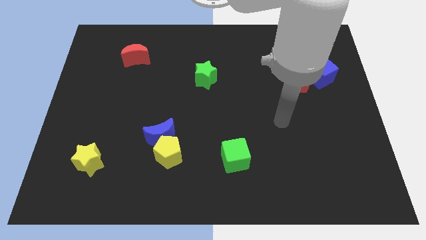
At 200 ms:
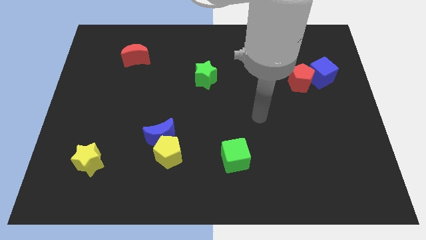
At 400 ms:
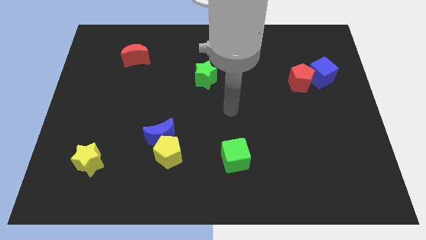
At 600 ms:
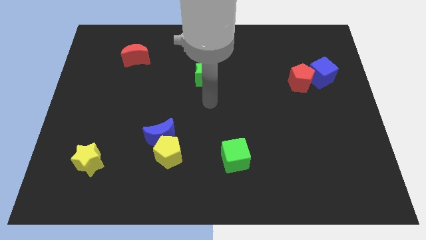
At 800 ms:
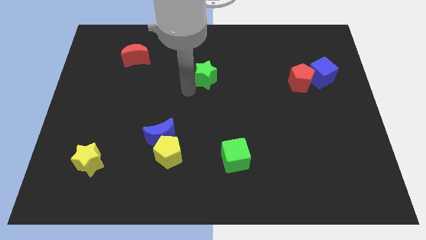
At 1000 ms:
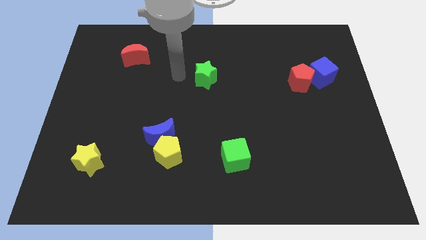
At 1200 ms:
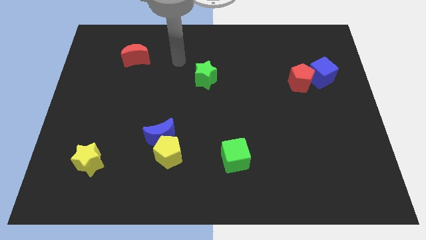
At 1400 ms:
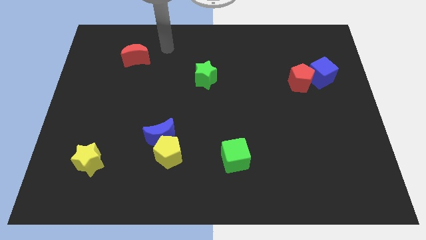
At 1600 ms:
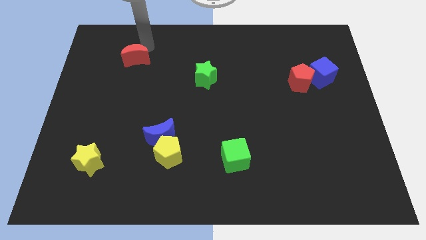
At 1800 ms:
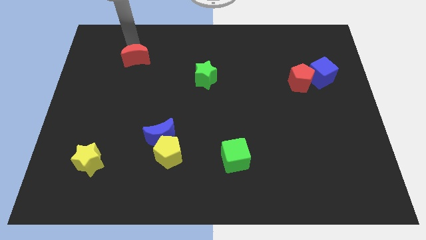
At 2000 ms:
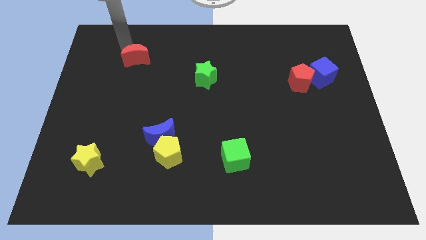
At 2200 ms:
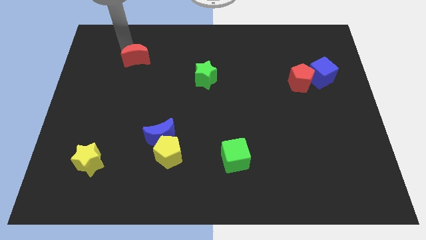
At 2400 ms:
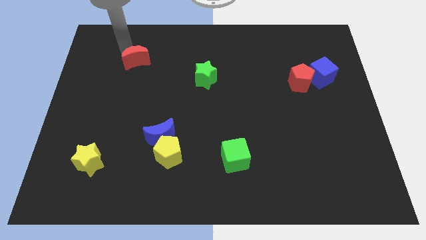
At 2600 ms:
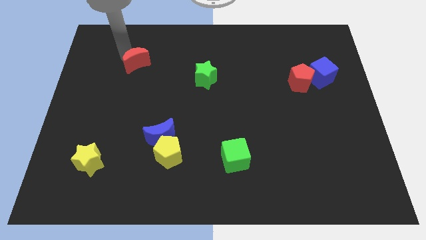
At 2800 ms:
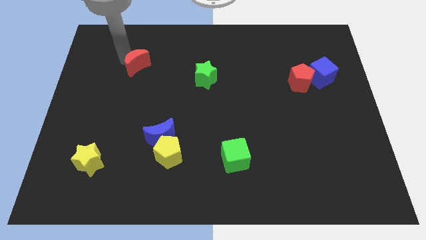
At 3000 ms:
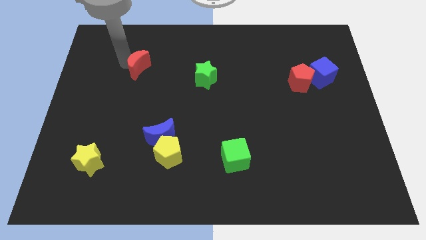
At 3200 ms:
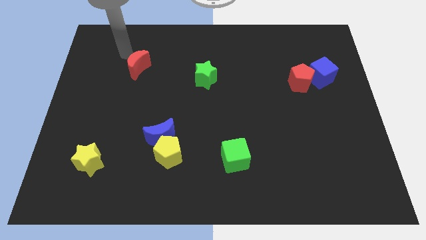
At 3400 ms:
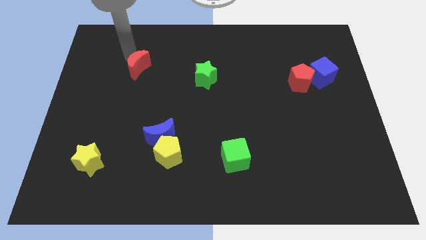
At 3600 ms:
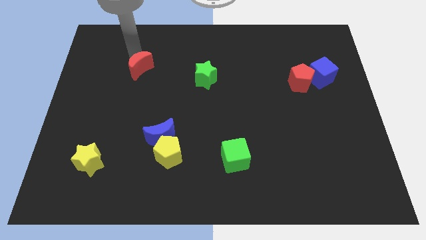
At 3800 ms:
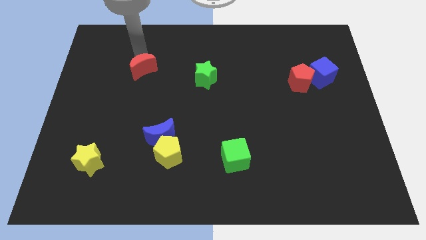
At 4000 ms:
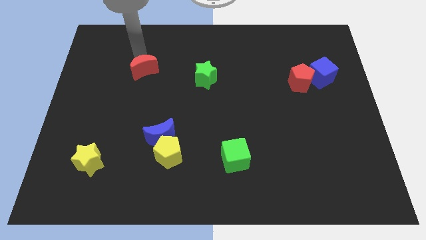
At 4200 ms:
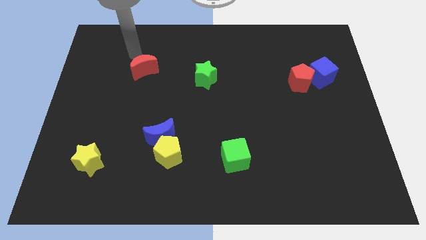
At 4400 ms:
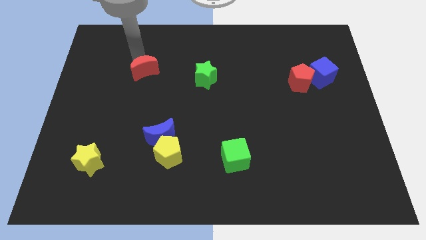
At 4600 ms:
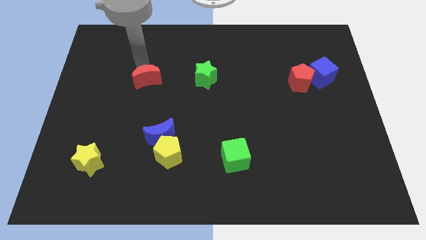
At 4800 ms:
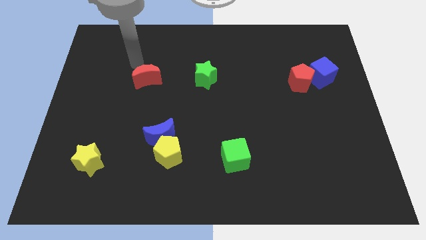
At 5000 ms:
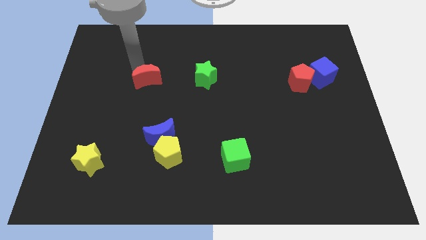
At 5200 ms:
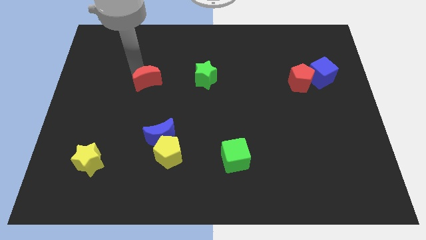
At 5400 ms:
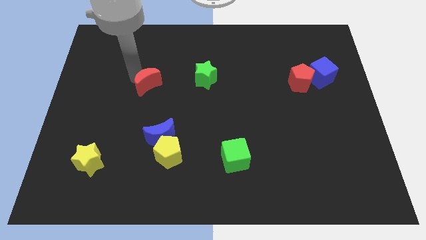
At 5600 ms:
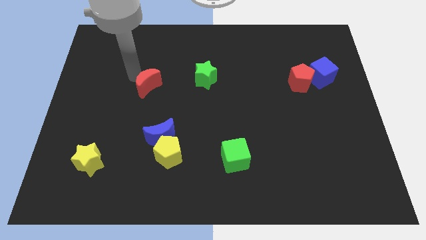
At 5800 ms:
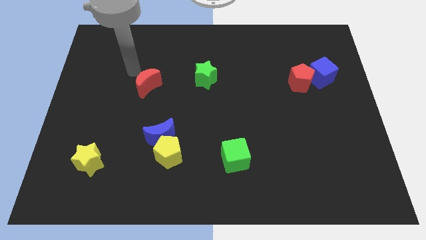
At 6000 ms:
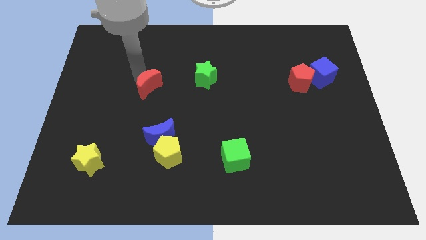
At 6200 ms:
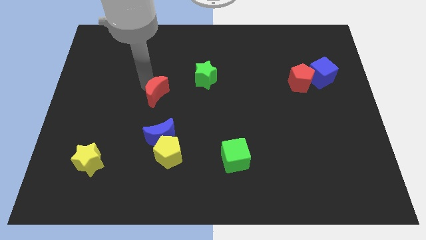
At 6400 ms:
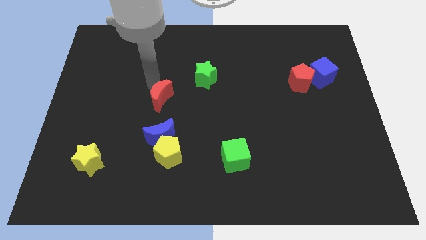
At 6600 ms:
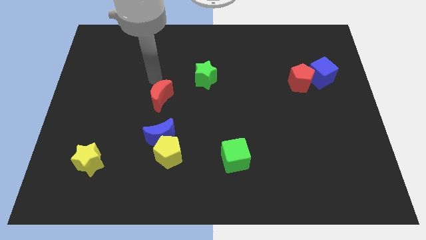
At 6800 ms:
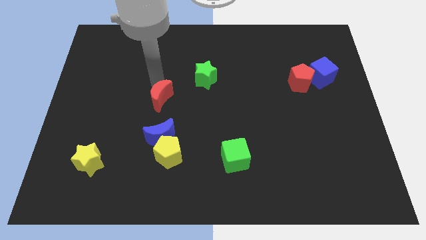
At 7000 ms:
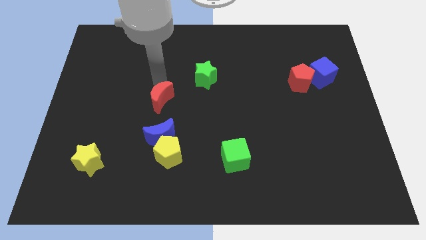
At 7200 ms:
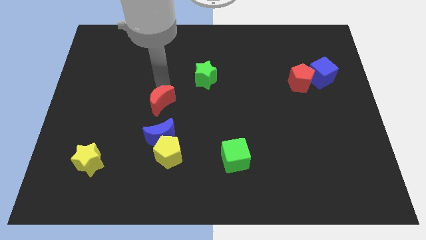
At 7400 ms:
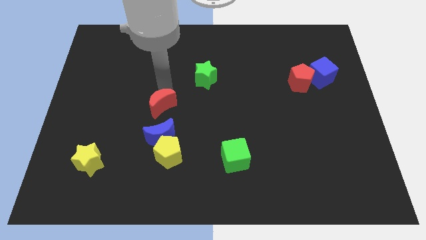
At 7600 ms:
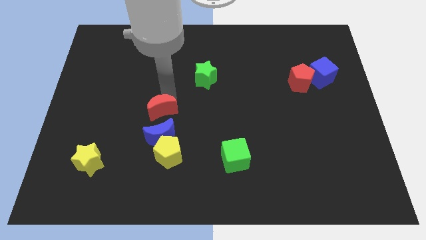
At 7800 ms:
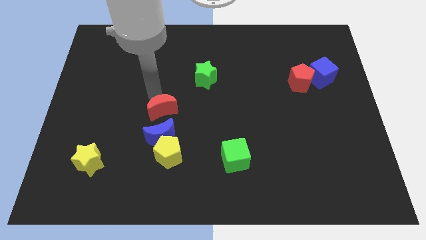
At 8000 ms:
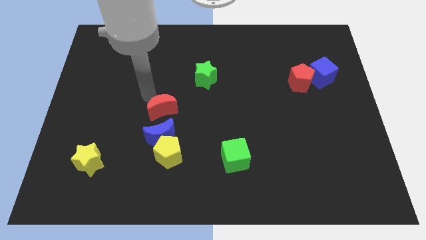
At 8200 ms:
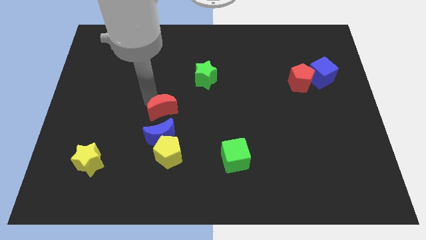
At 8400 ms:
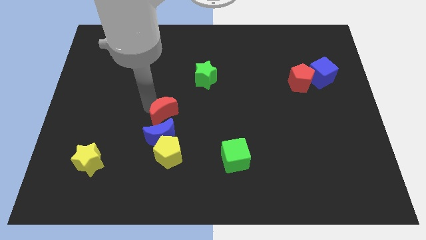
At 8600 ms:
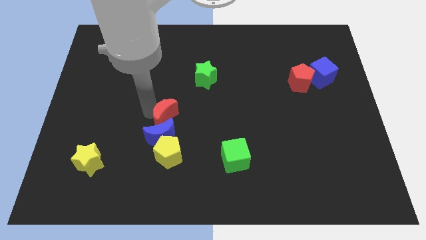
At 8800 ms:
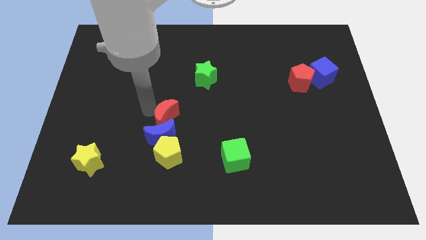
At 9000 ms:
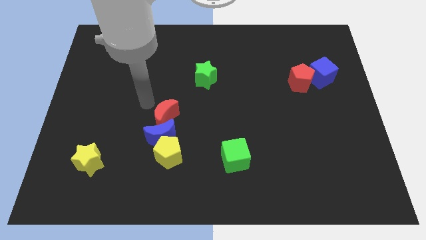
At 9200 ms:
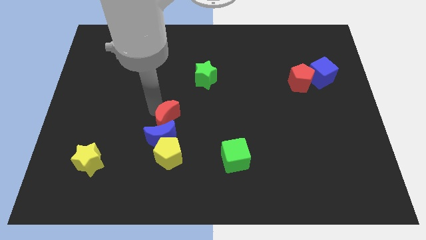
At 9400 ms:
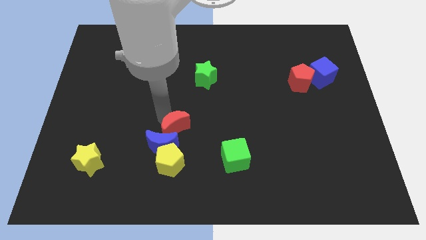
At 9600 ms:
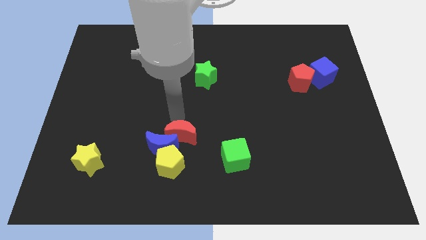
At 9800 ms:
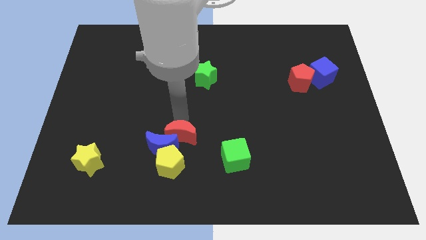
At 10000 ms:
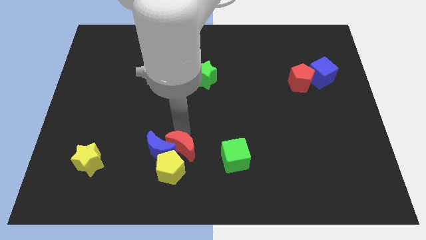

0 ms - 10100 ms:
push the red moon to the bottom right side of the blue moon

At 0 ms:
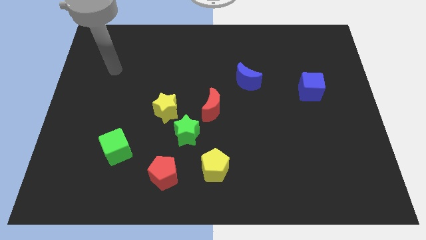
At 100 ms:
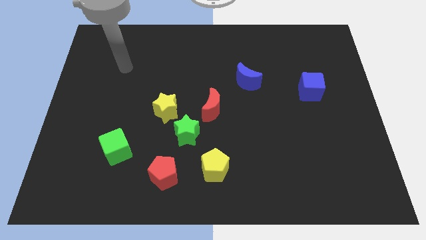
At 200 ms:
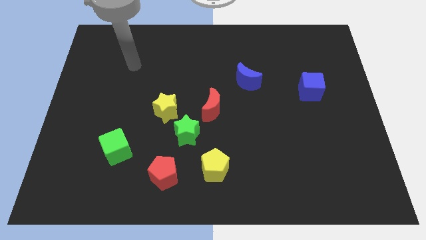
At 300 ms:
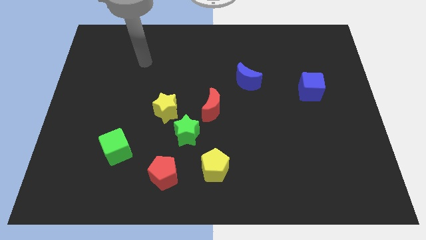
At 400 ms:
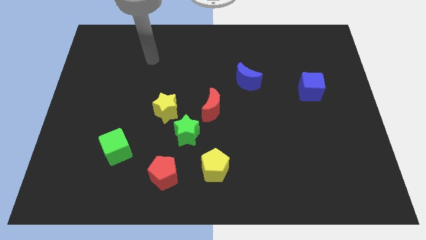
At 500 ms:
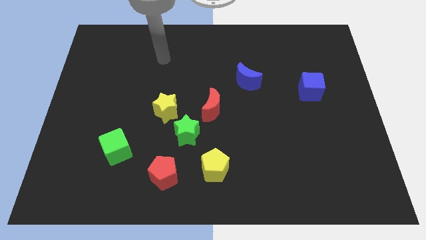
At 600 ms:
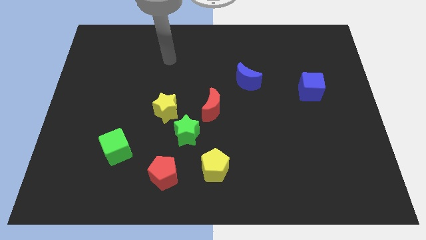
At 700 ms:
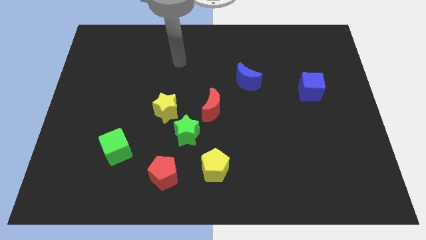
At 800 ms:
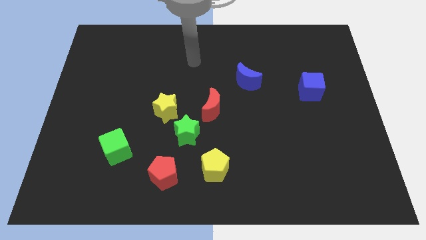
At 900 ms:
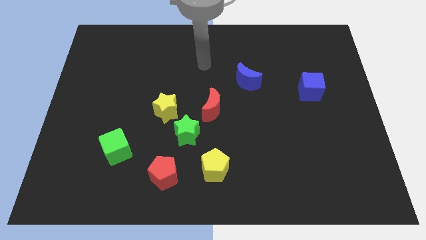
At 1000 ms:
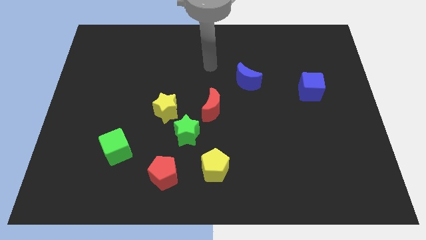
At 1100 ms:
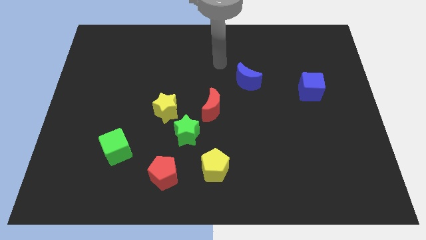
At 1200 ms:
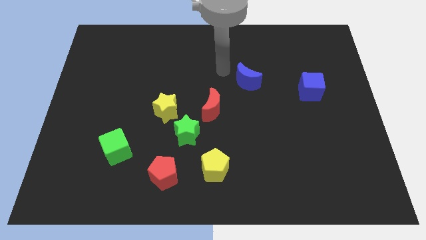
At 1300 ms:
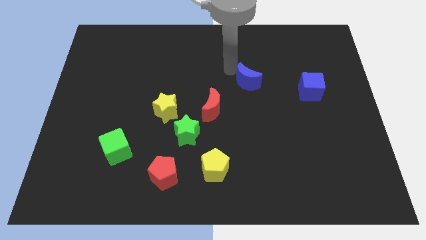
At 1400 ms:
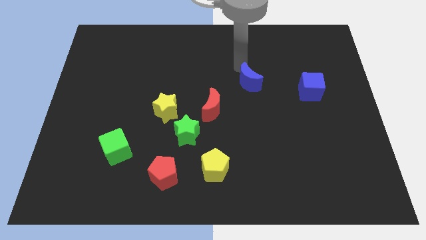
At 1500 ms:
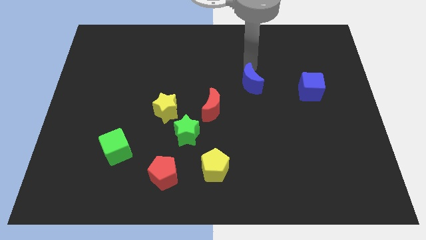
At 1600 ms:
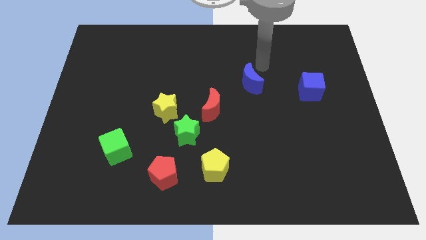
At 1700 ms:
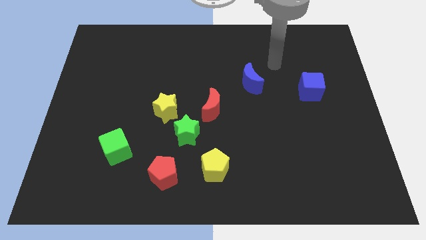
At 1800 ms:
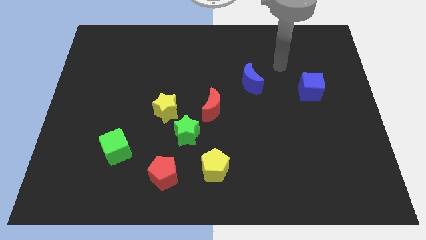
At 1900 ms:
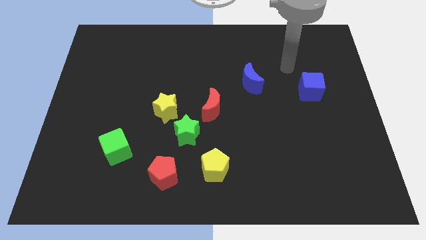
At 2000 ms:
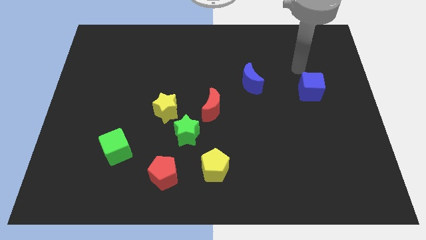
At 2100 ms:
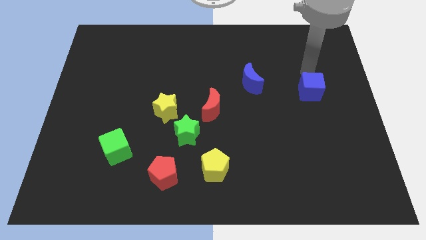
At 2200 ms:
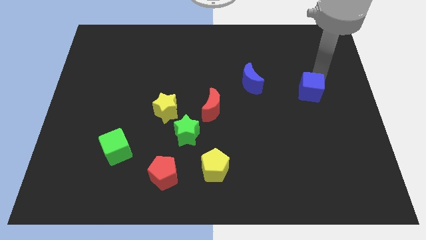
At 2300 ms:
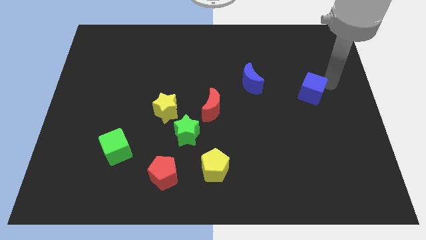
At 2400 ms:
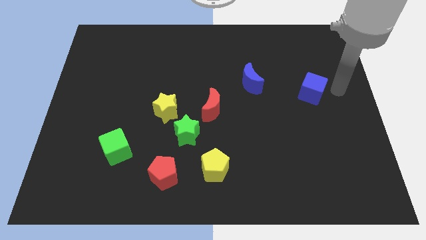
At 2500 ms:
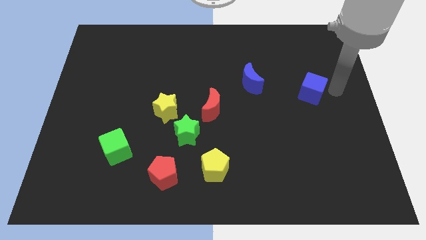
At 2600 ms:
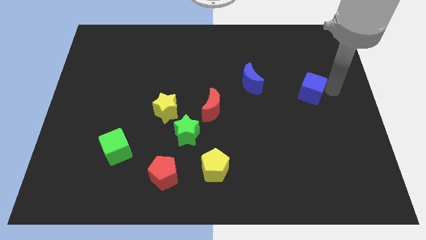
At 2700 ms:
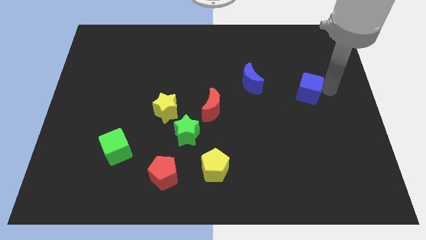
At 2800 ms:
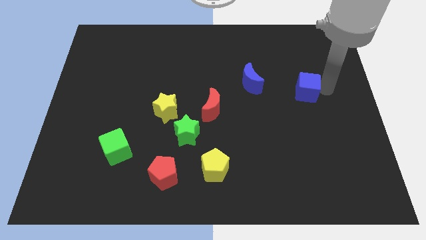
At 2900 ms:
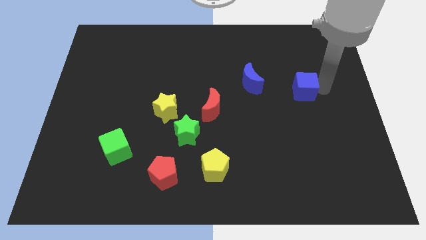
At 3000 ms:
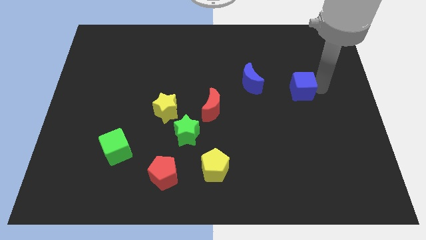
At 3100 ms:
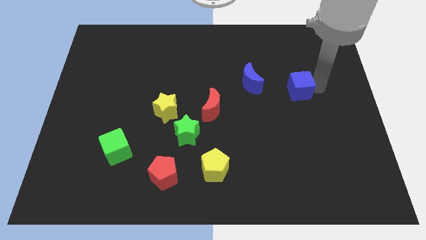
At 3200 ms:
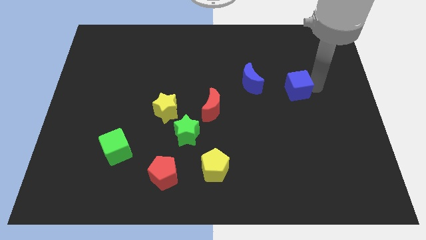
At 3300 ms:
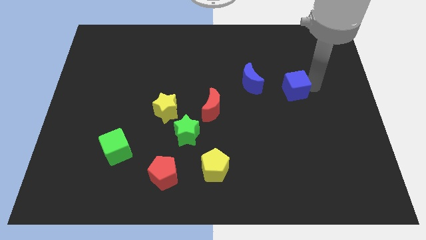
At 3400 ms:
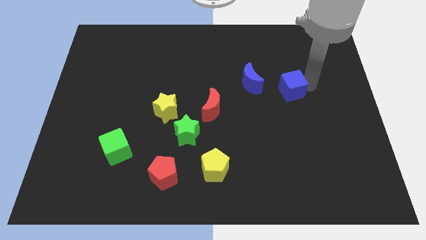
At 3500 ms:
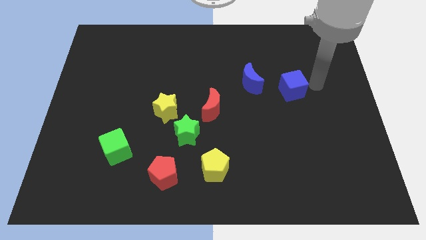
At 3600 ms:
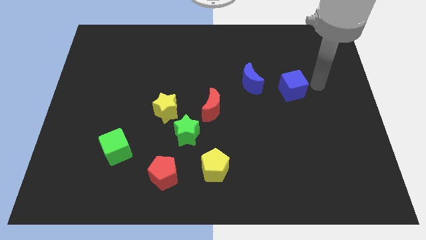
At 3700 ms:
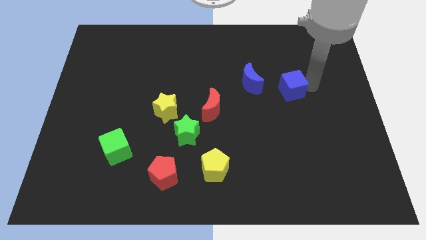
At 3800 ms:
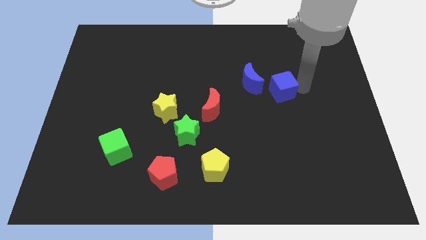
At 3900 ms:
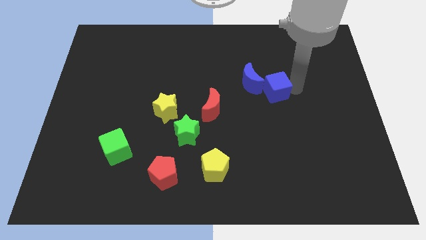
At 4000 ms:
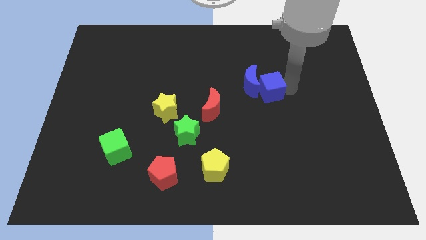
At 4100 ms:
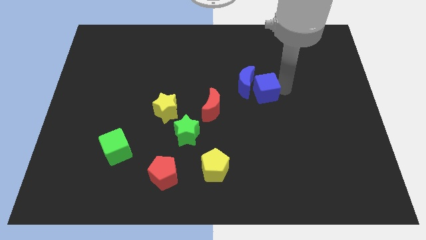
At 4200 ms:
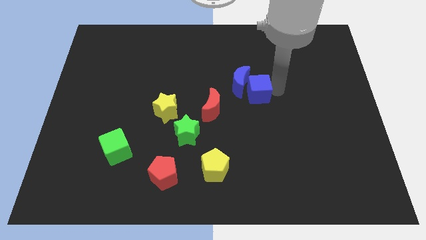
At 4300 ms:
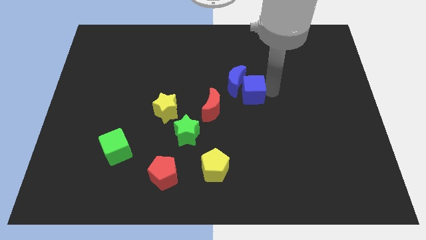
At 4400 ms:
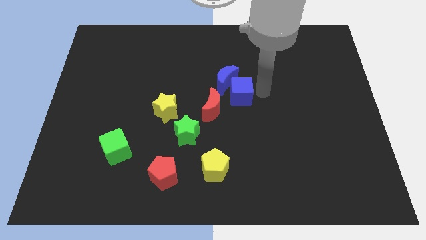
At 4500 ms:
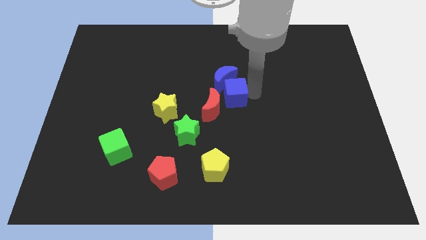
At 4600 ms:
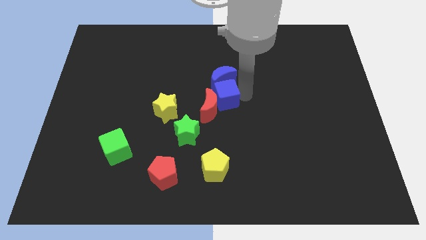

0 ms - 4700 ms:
move the blue cube to the bottom left side of the blue moon
